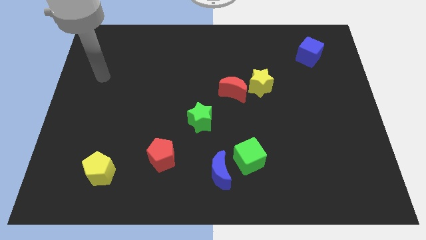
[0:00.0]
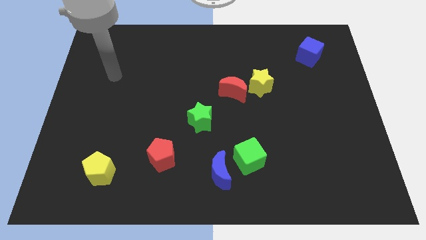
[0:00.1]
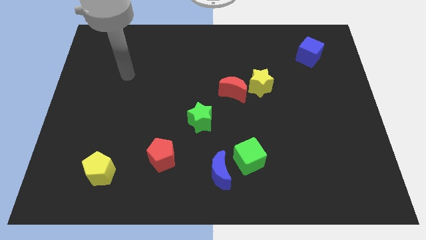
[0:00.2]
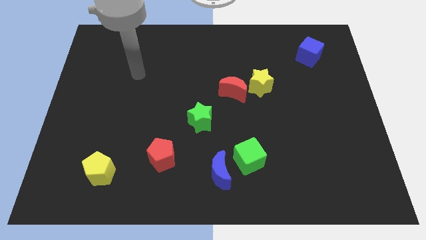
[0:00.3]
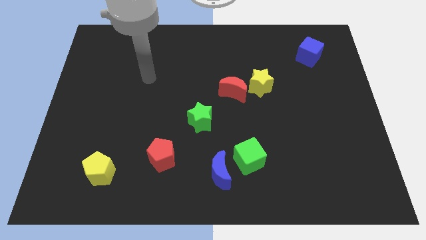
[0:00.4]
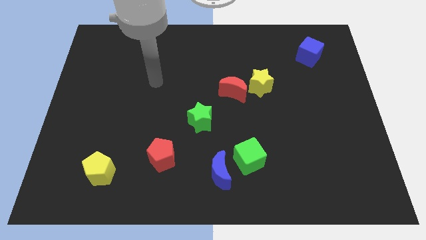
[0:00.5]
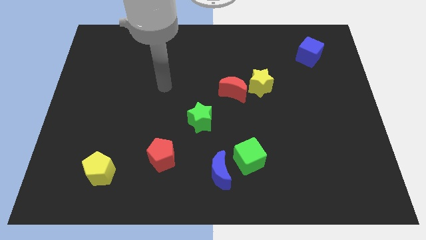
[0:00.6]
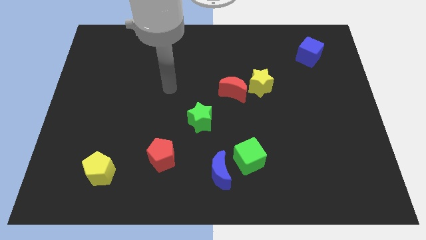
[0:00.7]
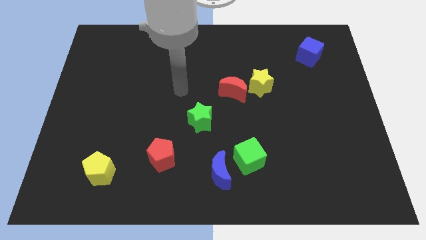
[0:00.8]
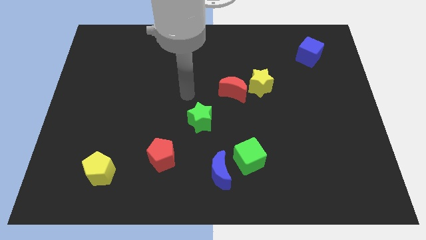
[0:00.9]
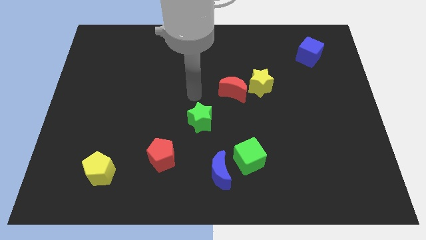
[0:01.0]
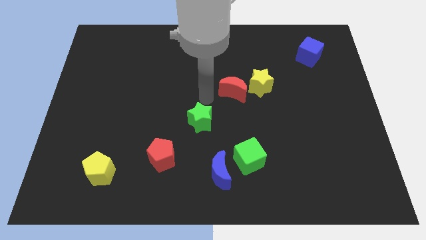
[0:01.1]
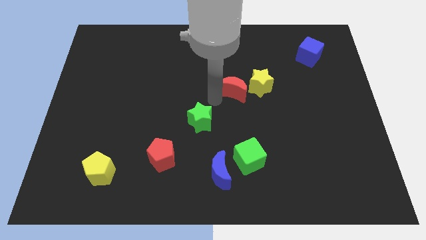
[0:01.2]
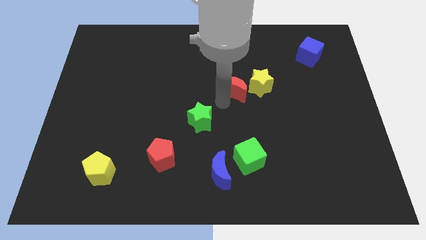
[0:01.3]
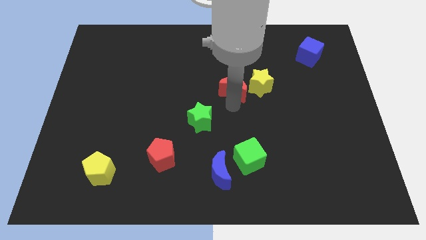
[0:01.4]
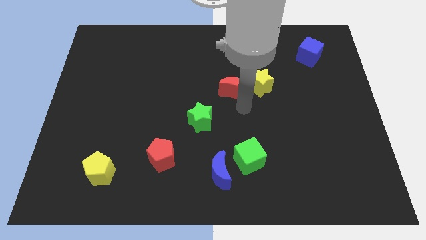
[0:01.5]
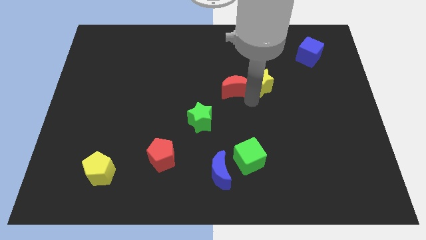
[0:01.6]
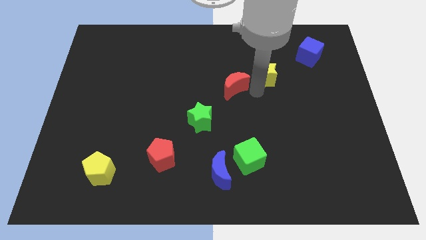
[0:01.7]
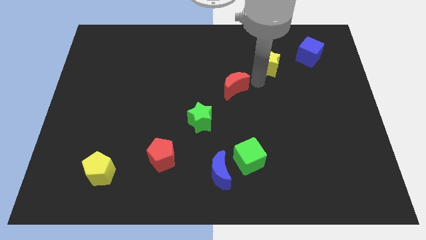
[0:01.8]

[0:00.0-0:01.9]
pull the red moon apart from the yellow star

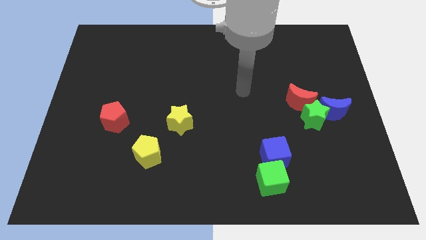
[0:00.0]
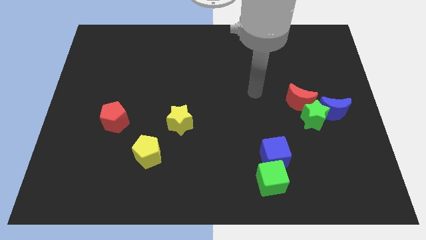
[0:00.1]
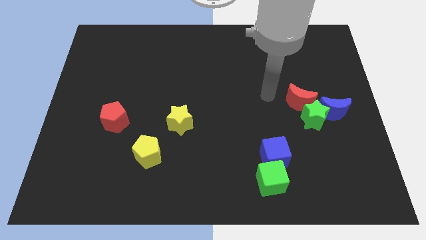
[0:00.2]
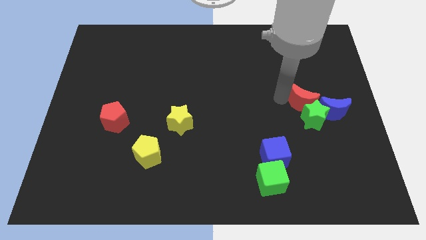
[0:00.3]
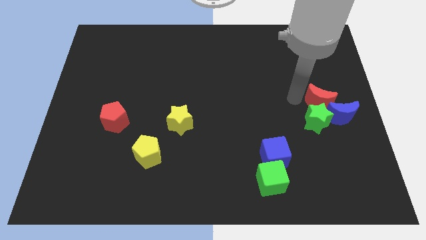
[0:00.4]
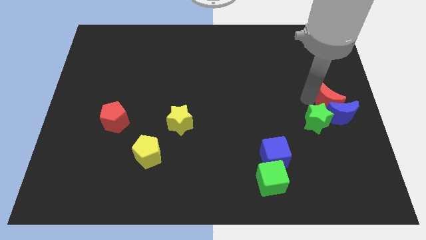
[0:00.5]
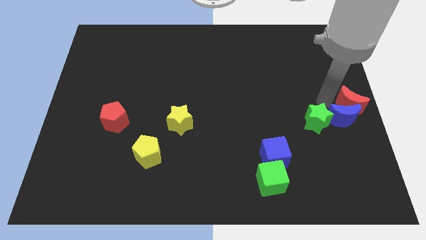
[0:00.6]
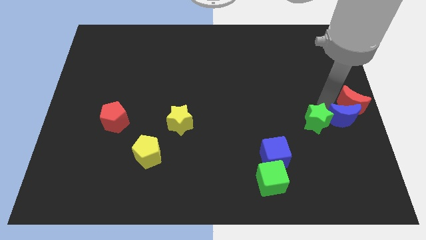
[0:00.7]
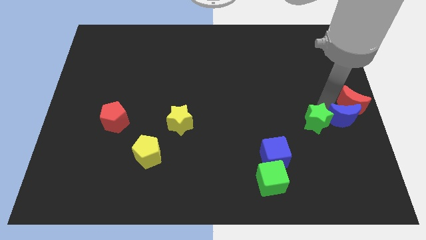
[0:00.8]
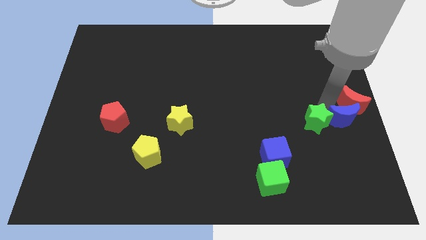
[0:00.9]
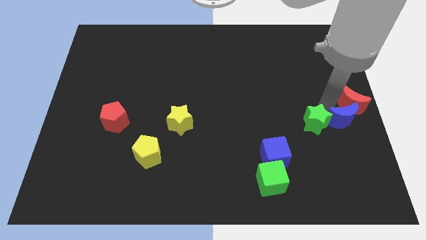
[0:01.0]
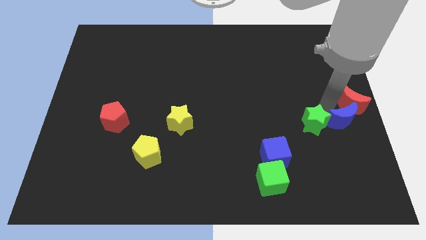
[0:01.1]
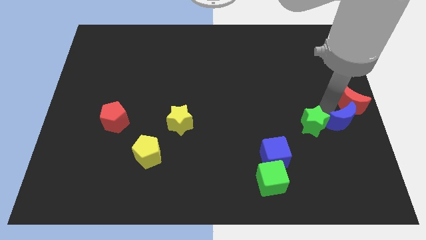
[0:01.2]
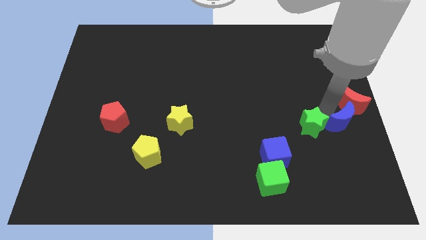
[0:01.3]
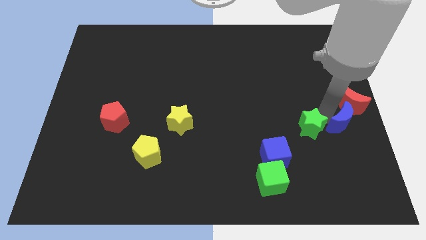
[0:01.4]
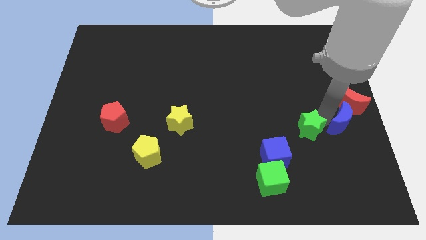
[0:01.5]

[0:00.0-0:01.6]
pull the green star apart from the blue moon and red moon

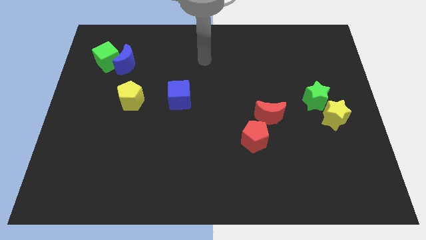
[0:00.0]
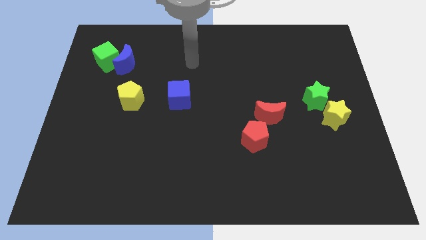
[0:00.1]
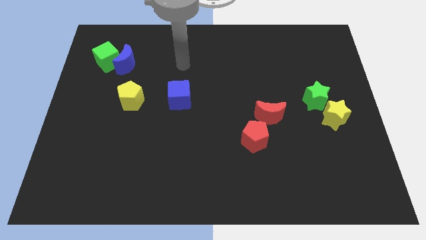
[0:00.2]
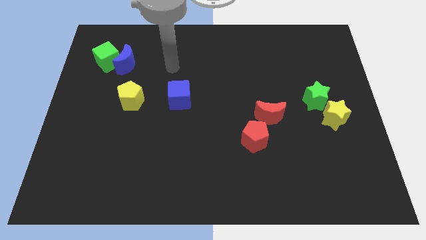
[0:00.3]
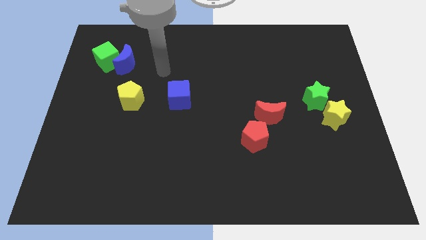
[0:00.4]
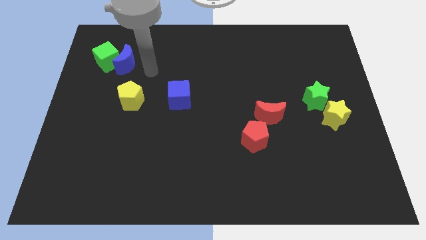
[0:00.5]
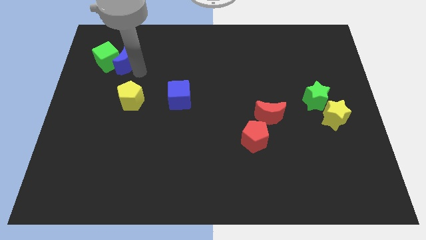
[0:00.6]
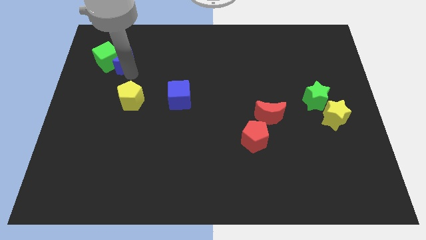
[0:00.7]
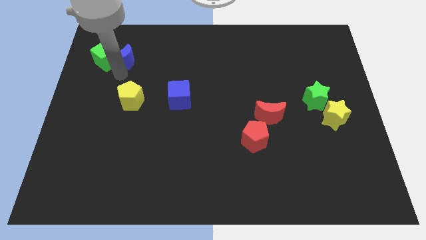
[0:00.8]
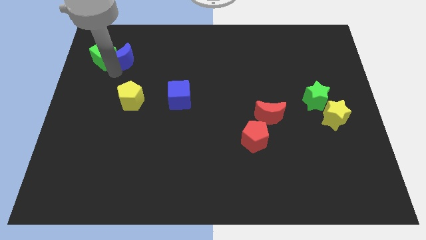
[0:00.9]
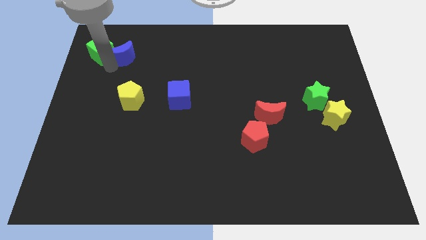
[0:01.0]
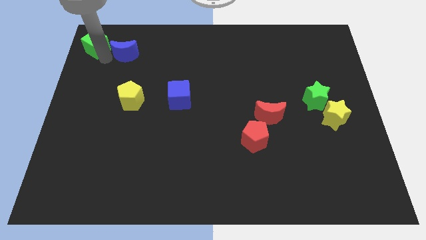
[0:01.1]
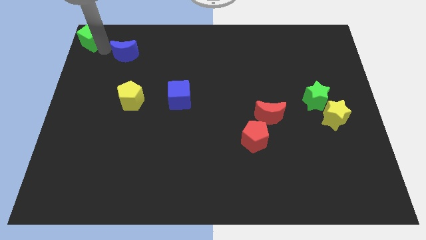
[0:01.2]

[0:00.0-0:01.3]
pull the blue moon apart from the green cube

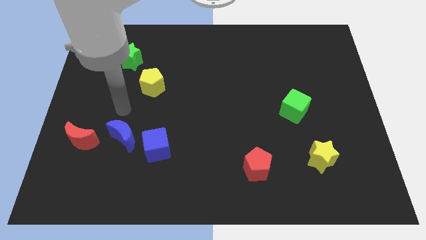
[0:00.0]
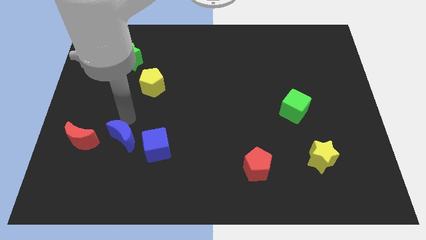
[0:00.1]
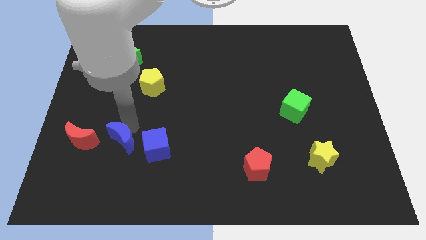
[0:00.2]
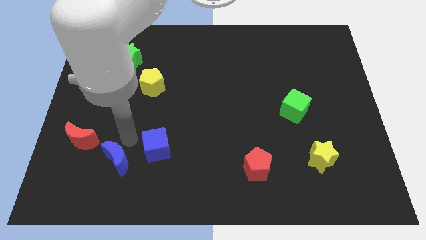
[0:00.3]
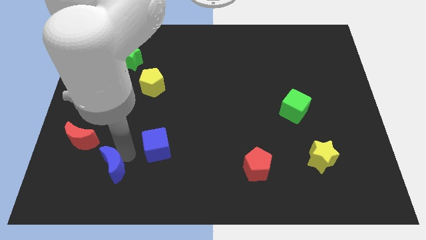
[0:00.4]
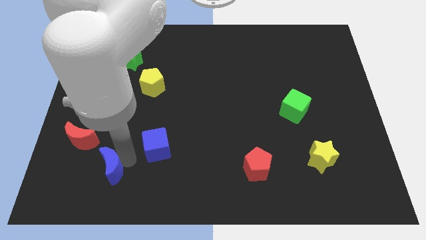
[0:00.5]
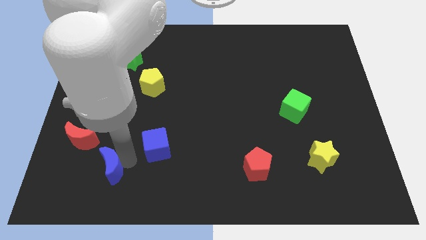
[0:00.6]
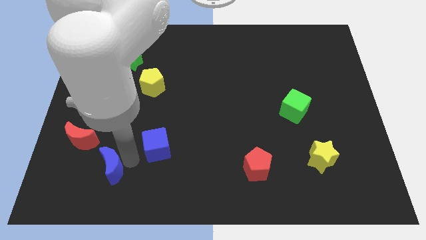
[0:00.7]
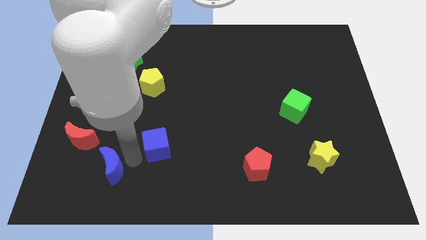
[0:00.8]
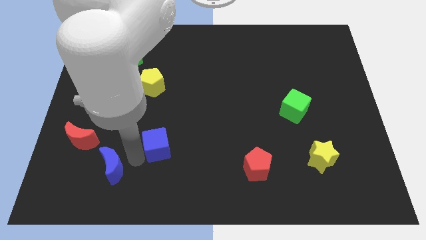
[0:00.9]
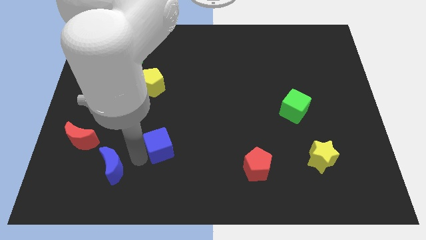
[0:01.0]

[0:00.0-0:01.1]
move the blue cube away from the blue moon

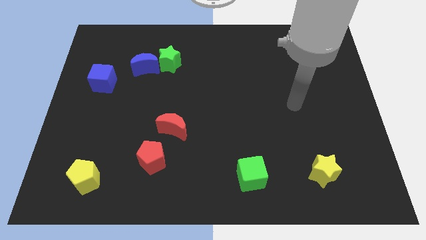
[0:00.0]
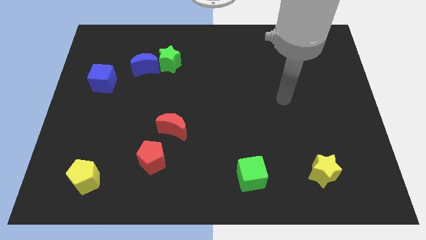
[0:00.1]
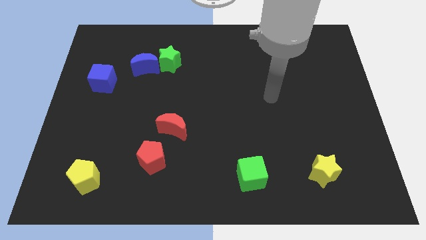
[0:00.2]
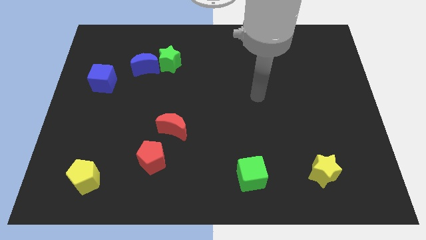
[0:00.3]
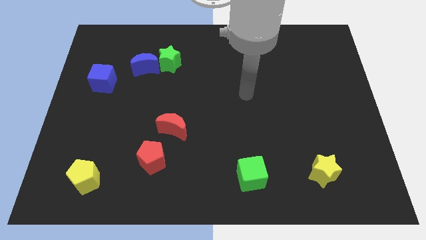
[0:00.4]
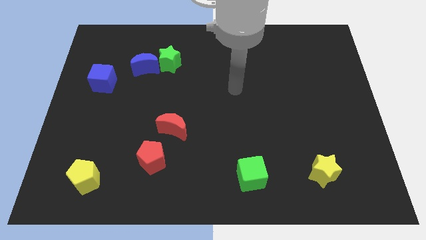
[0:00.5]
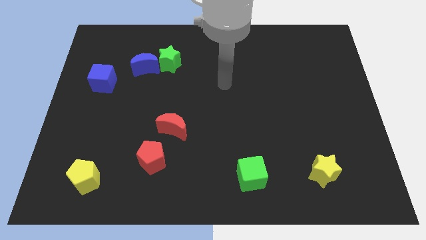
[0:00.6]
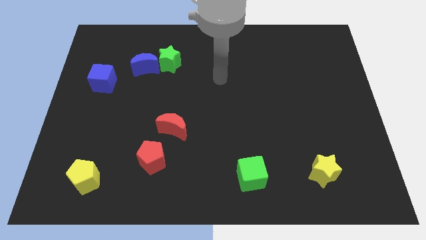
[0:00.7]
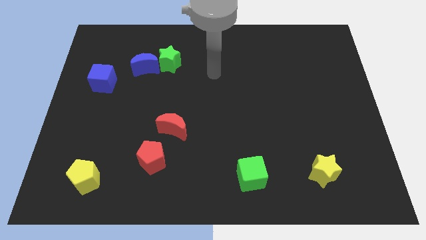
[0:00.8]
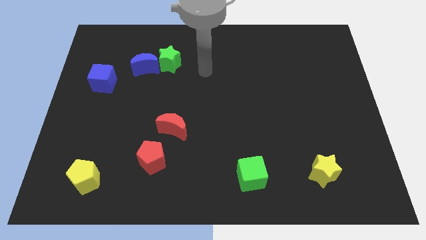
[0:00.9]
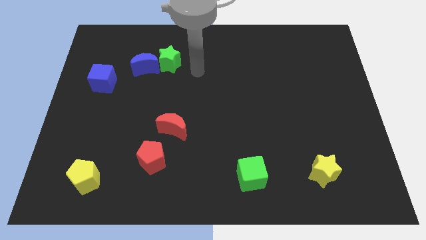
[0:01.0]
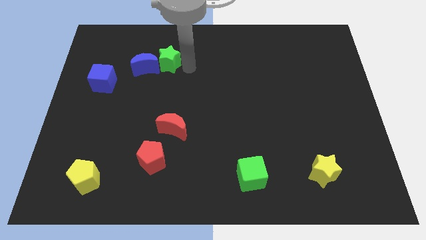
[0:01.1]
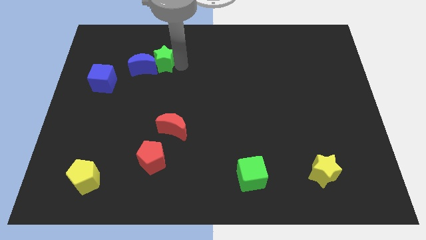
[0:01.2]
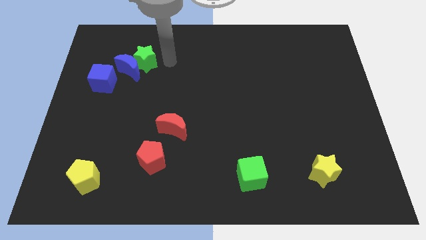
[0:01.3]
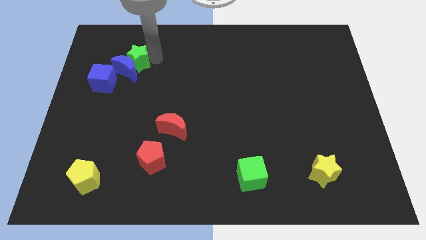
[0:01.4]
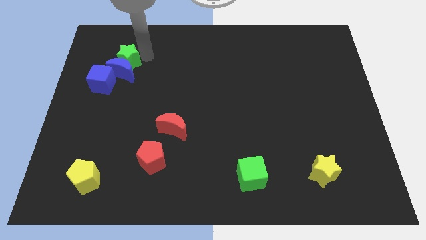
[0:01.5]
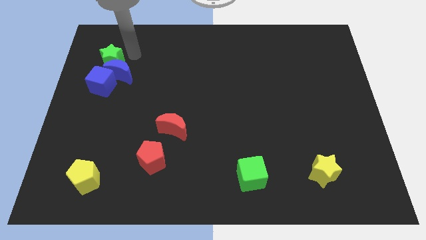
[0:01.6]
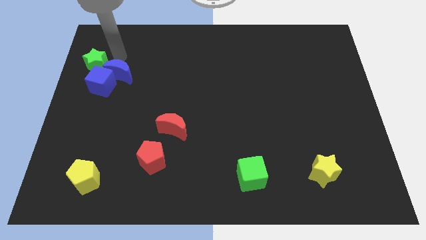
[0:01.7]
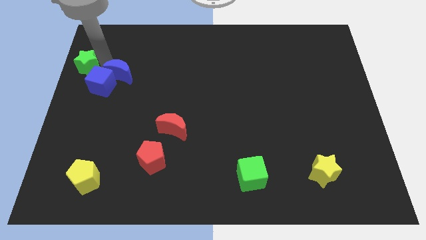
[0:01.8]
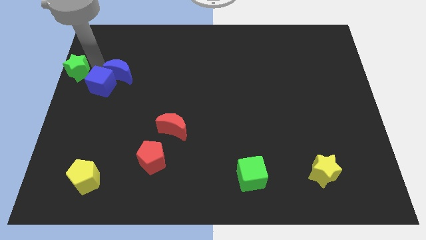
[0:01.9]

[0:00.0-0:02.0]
pull the blue moon apart from the green star

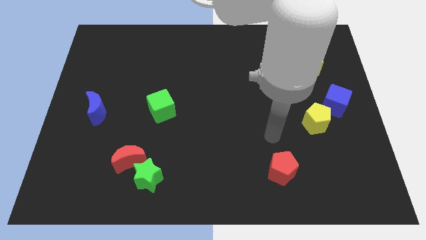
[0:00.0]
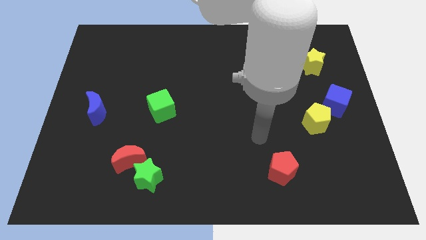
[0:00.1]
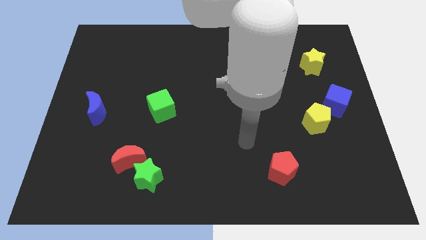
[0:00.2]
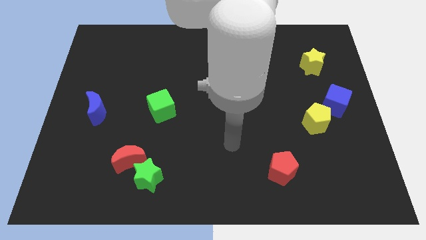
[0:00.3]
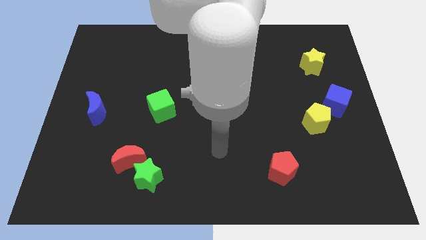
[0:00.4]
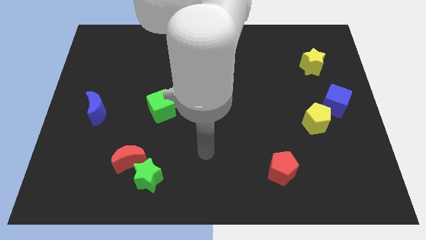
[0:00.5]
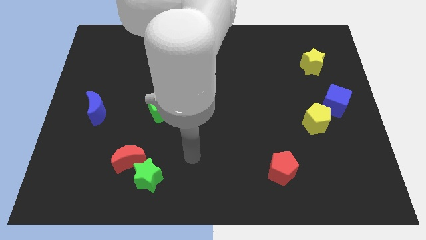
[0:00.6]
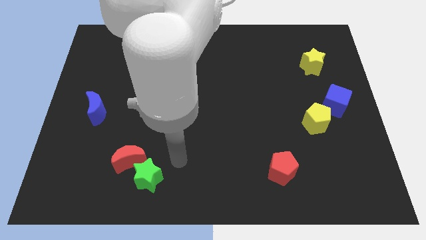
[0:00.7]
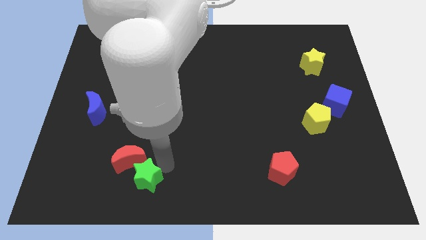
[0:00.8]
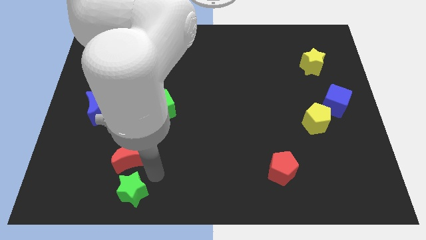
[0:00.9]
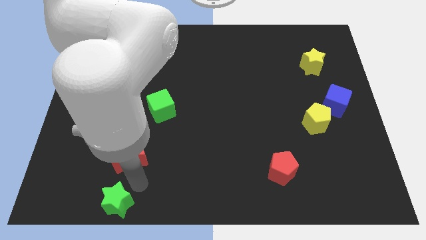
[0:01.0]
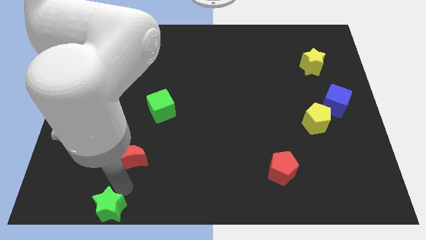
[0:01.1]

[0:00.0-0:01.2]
separate the red moon from the green star

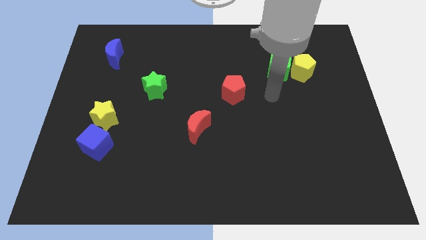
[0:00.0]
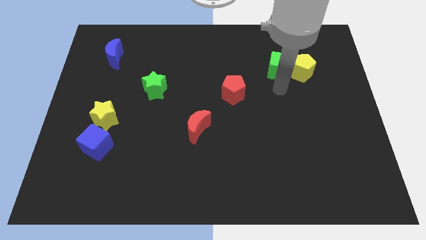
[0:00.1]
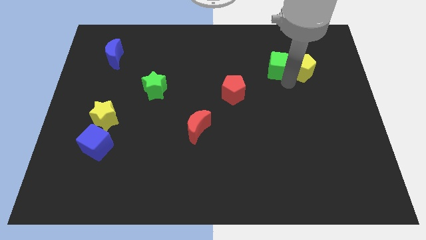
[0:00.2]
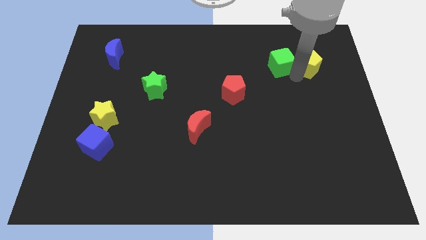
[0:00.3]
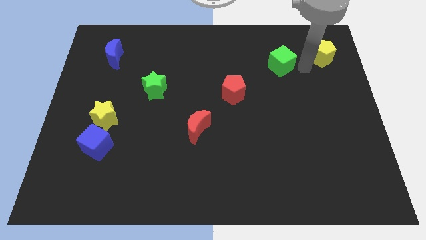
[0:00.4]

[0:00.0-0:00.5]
separate the green cube from the yellow pentagon
